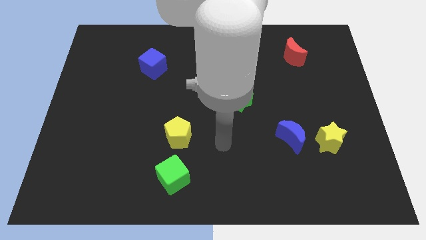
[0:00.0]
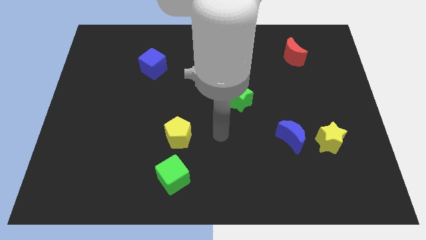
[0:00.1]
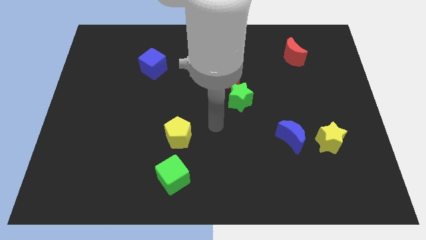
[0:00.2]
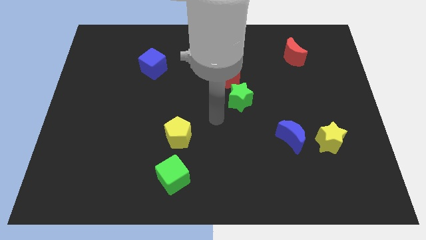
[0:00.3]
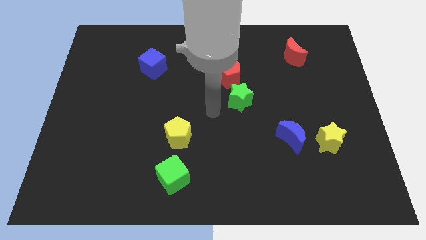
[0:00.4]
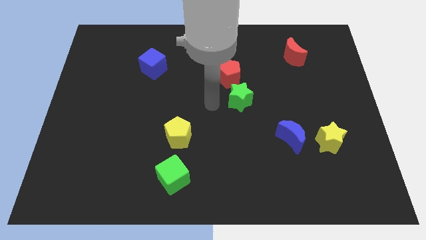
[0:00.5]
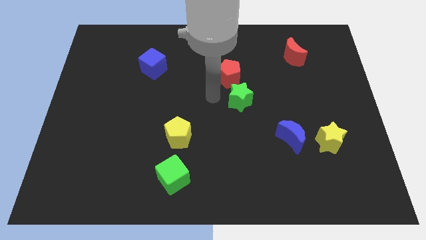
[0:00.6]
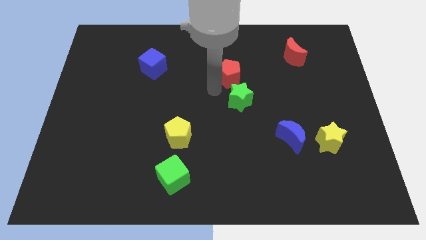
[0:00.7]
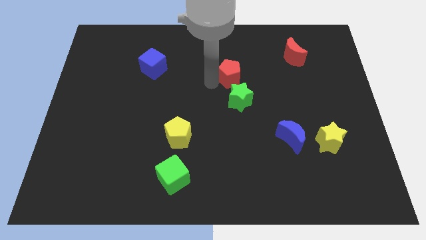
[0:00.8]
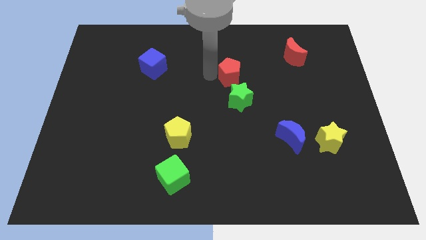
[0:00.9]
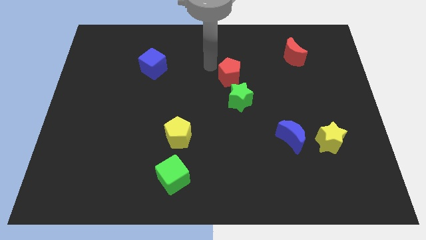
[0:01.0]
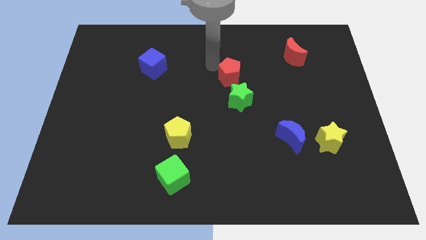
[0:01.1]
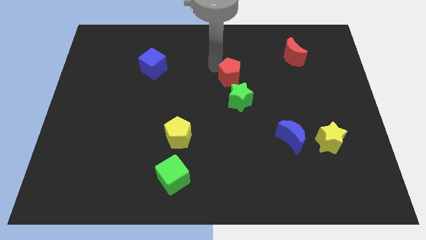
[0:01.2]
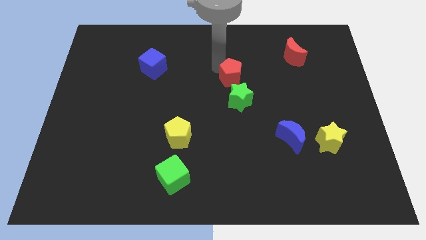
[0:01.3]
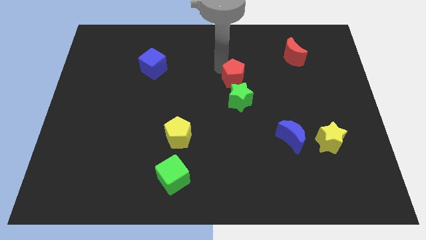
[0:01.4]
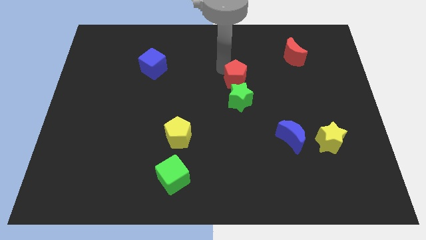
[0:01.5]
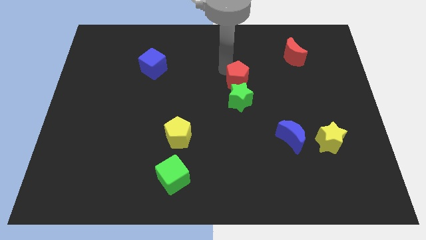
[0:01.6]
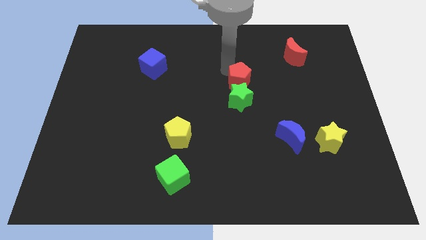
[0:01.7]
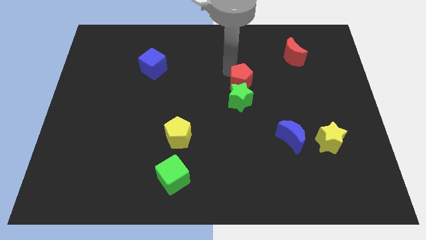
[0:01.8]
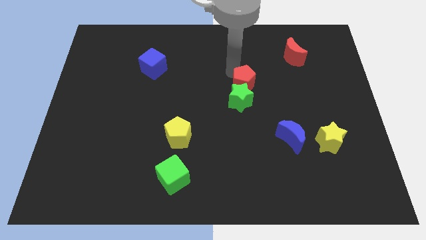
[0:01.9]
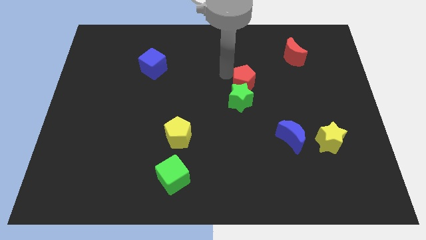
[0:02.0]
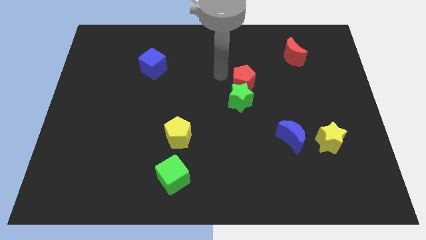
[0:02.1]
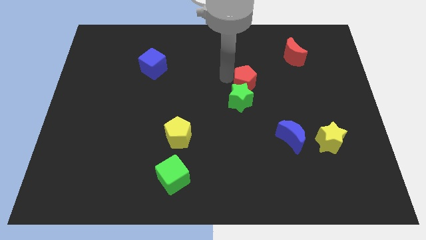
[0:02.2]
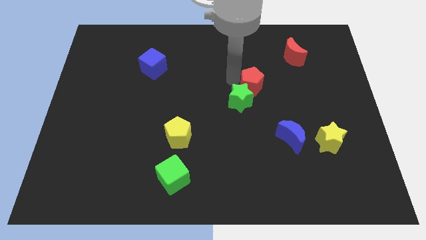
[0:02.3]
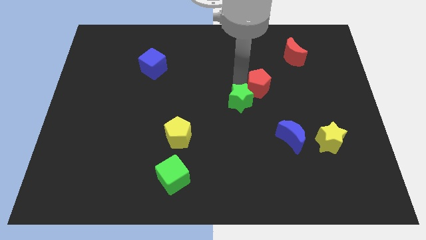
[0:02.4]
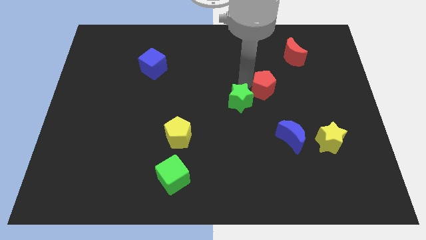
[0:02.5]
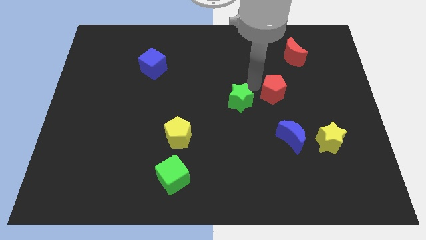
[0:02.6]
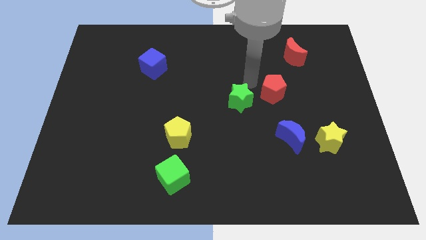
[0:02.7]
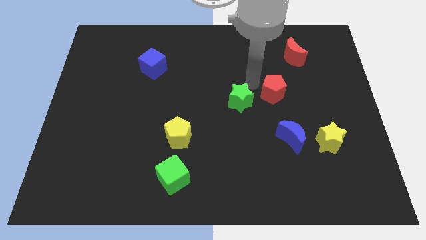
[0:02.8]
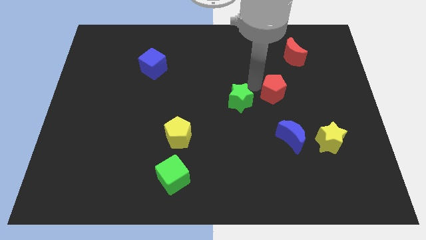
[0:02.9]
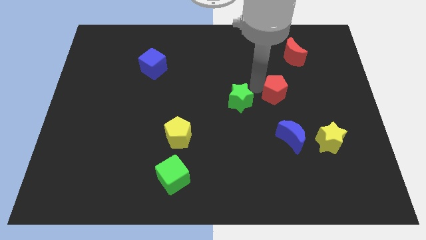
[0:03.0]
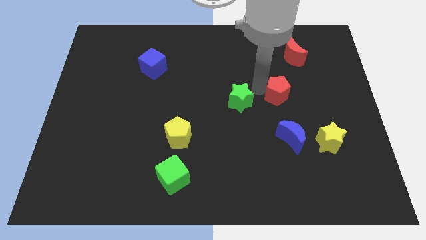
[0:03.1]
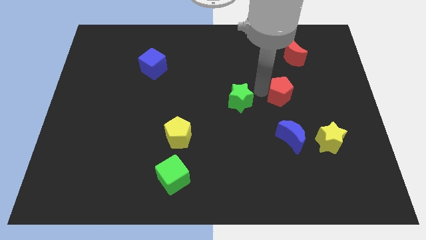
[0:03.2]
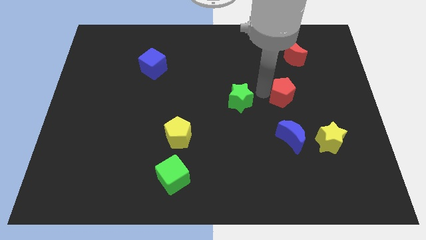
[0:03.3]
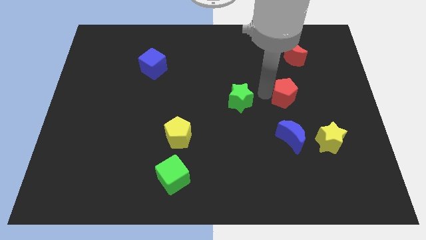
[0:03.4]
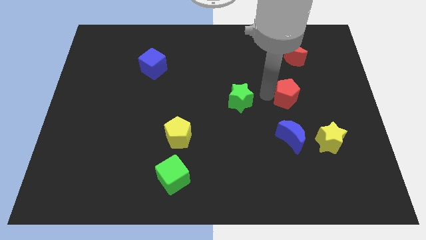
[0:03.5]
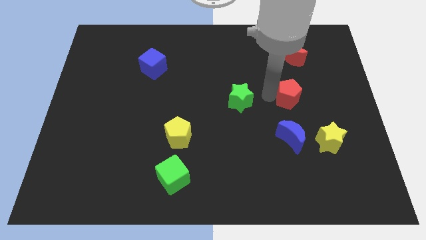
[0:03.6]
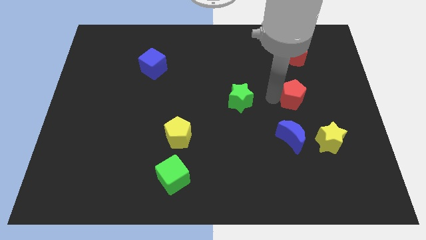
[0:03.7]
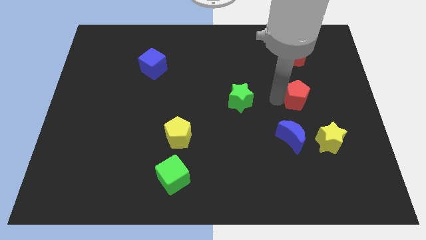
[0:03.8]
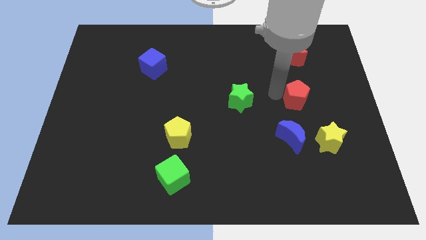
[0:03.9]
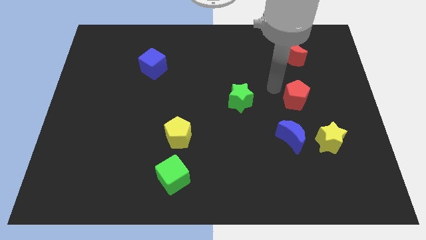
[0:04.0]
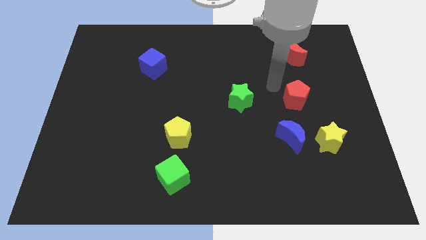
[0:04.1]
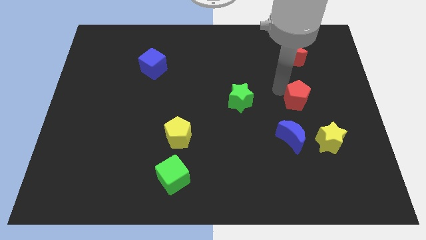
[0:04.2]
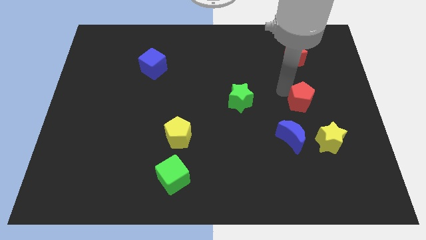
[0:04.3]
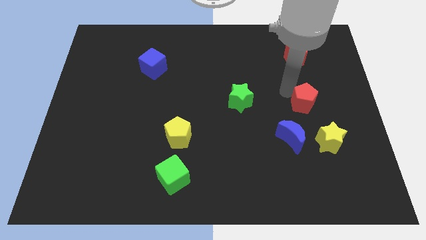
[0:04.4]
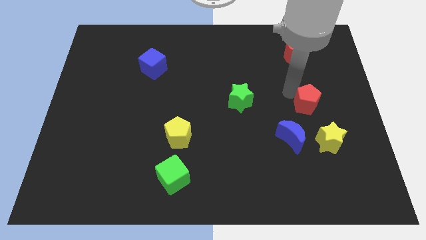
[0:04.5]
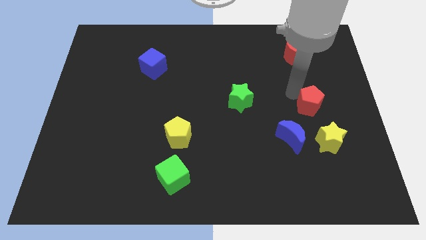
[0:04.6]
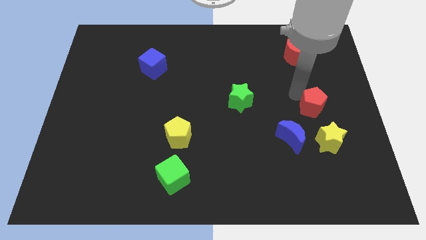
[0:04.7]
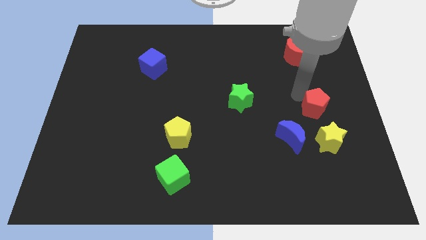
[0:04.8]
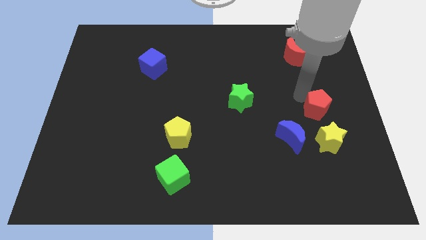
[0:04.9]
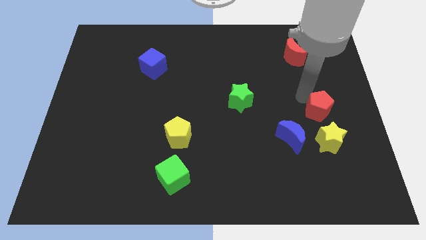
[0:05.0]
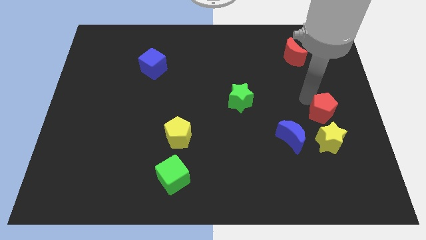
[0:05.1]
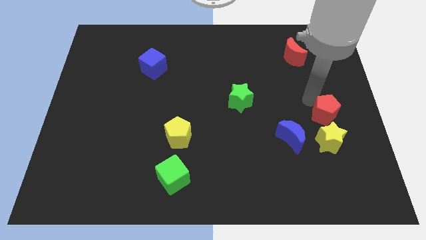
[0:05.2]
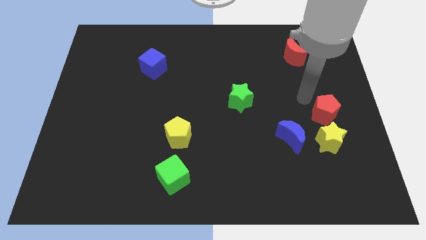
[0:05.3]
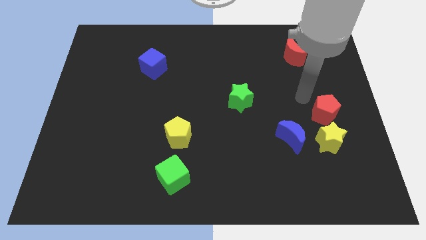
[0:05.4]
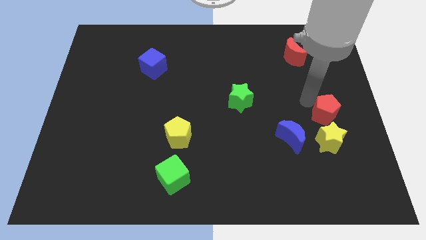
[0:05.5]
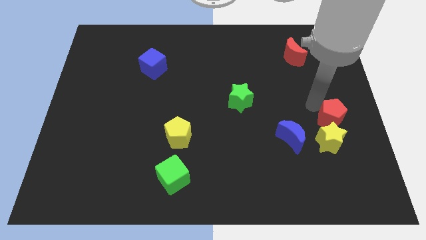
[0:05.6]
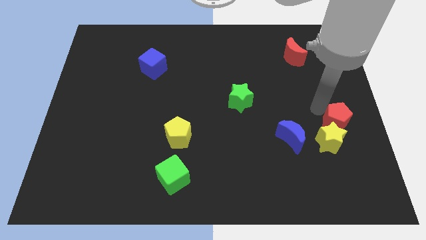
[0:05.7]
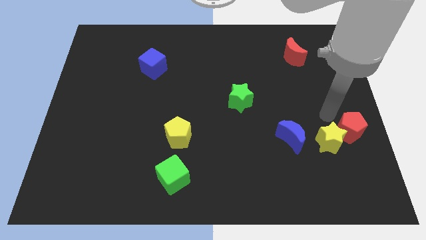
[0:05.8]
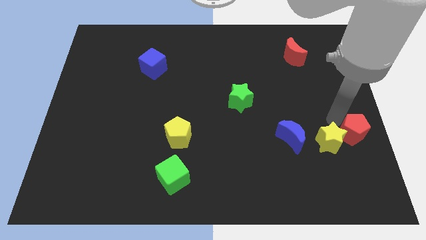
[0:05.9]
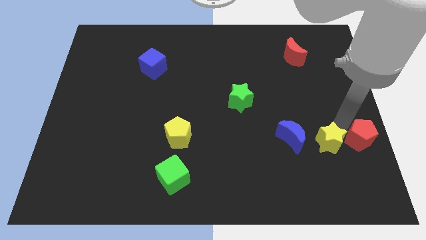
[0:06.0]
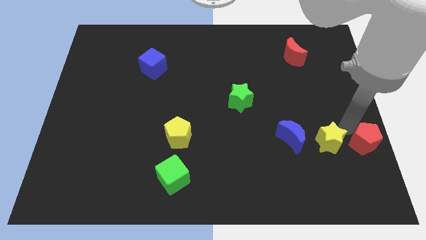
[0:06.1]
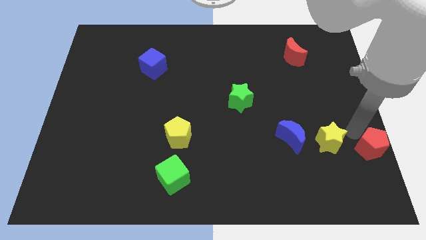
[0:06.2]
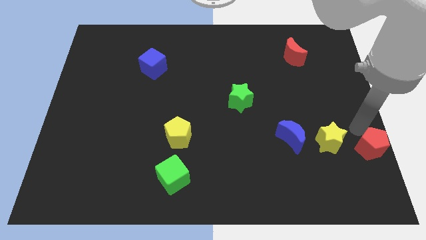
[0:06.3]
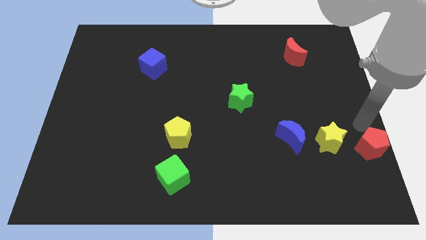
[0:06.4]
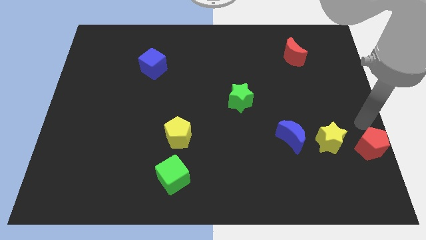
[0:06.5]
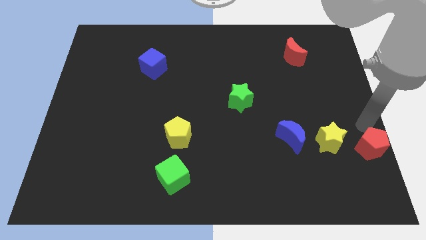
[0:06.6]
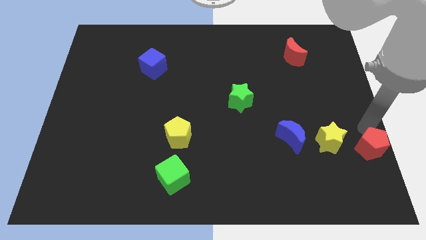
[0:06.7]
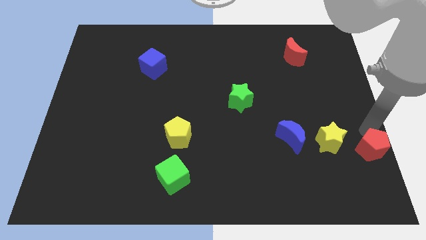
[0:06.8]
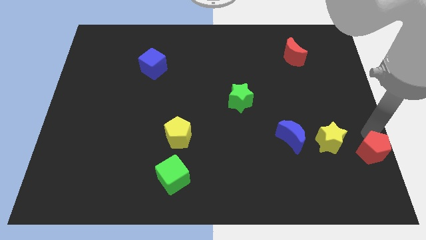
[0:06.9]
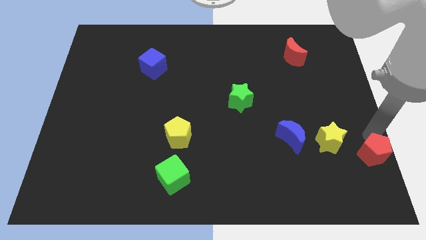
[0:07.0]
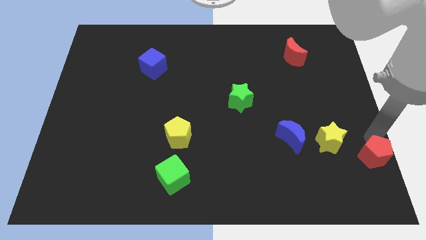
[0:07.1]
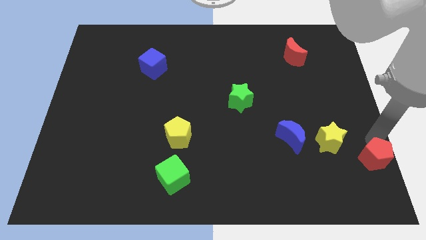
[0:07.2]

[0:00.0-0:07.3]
push the red pentagon to the lower right corner
